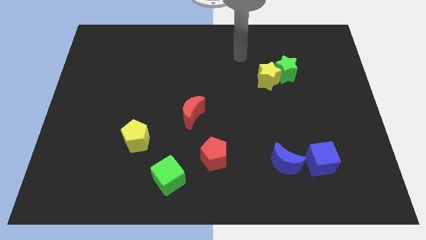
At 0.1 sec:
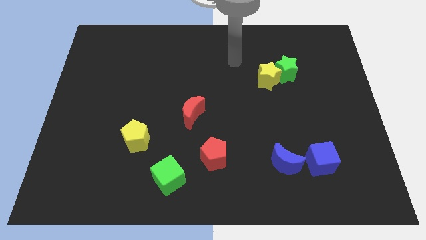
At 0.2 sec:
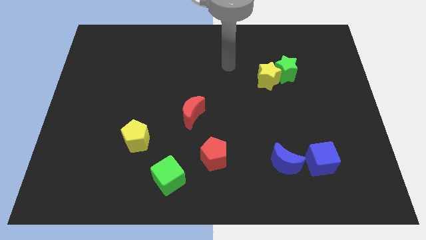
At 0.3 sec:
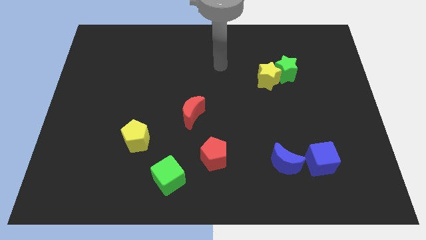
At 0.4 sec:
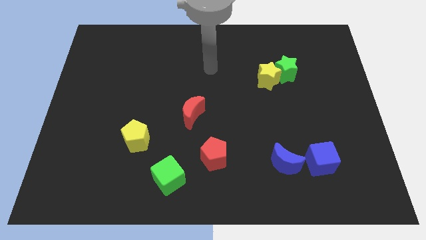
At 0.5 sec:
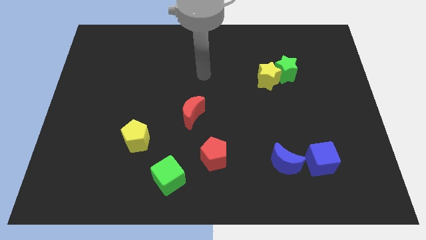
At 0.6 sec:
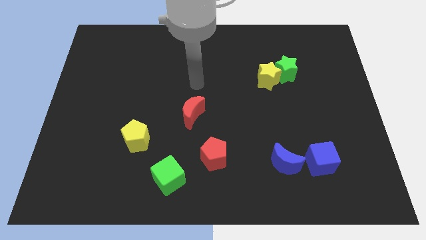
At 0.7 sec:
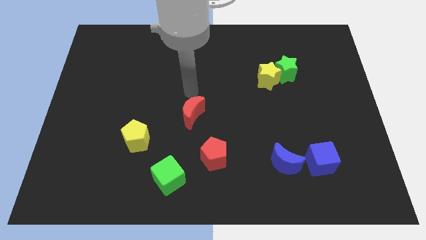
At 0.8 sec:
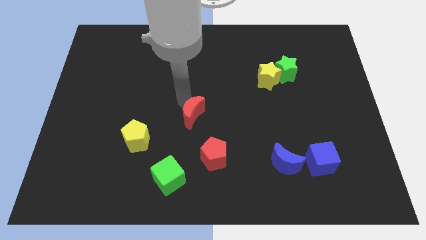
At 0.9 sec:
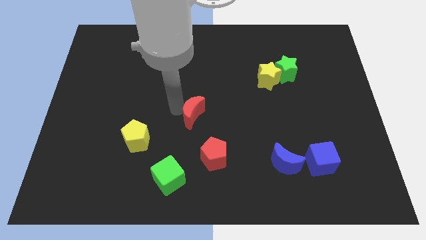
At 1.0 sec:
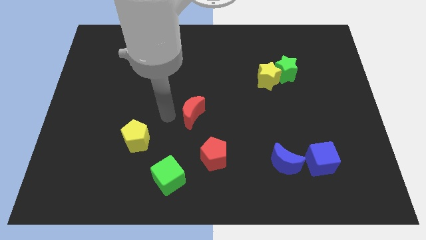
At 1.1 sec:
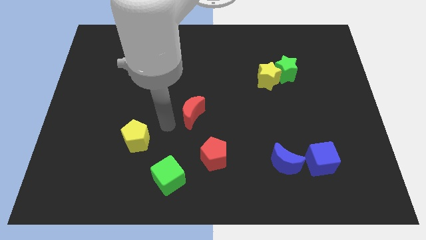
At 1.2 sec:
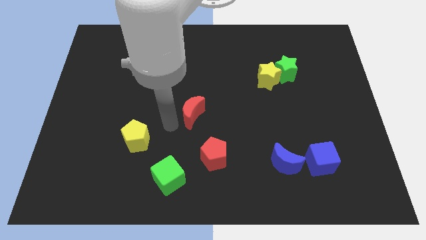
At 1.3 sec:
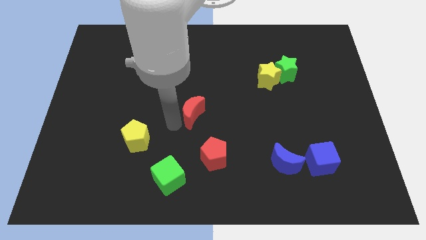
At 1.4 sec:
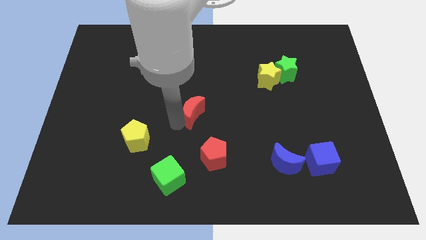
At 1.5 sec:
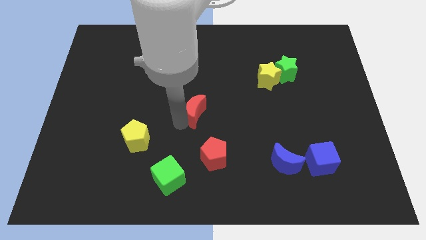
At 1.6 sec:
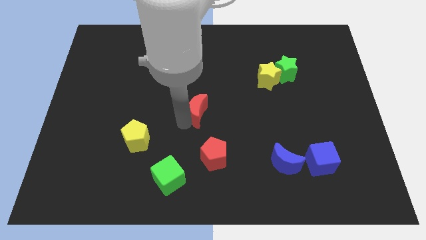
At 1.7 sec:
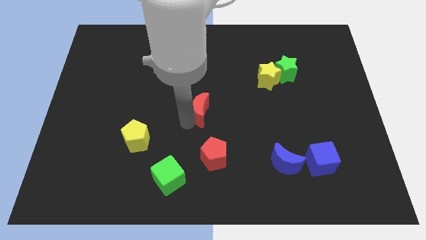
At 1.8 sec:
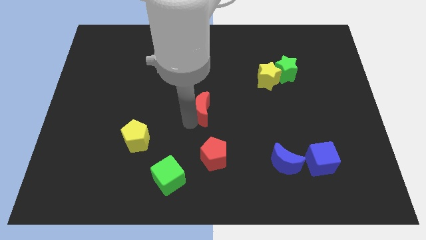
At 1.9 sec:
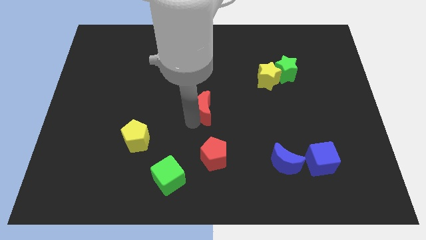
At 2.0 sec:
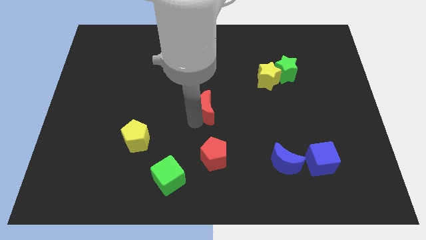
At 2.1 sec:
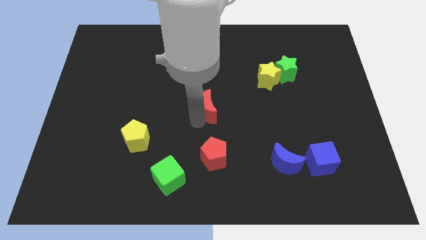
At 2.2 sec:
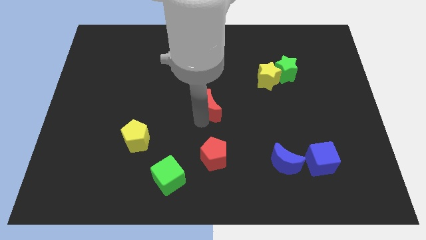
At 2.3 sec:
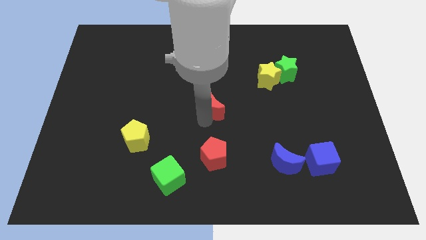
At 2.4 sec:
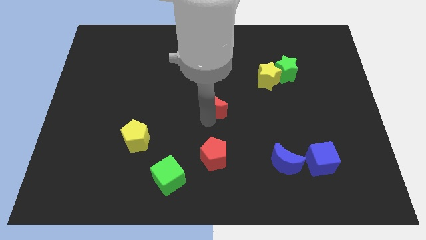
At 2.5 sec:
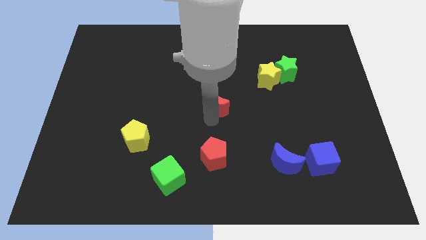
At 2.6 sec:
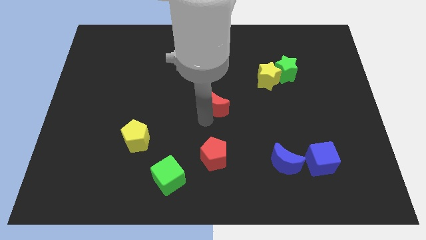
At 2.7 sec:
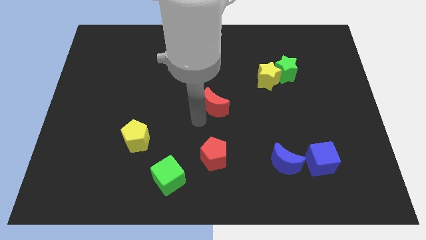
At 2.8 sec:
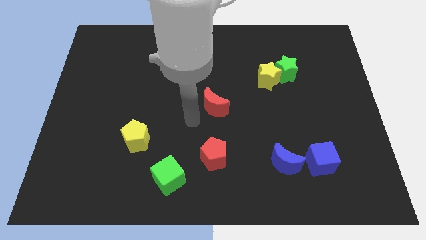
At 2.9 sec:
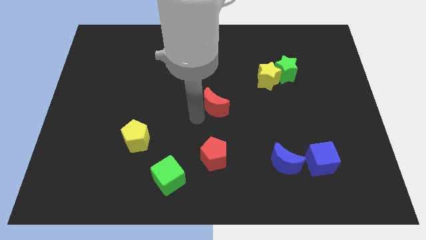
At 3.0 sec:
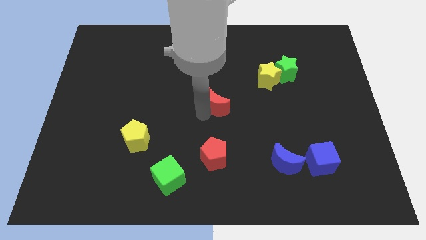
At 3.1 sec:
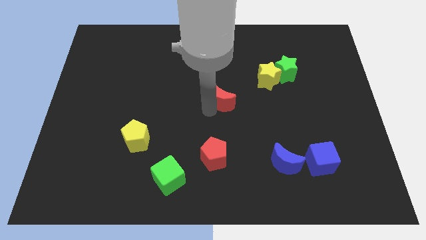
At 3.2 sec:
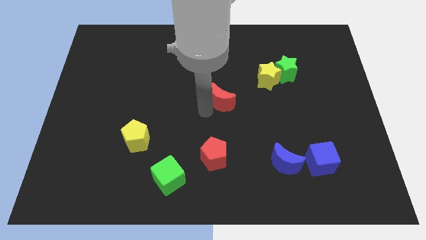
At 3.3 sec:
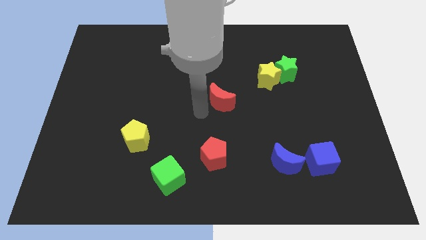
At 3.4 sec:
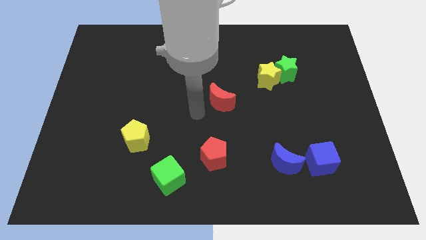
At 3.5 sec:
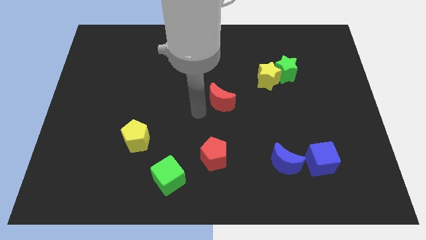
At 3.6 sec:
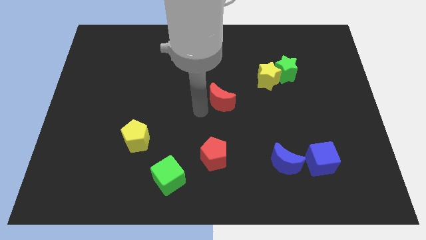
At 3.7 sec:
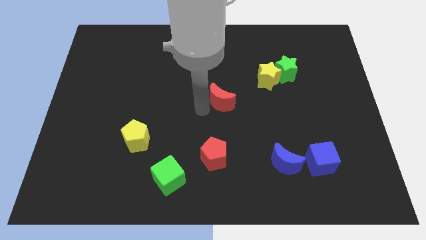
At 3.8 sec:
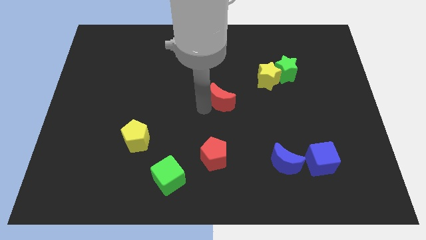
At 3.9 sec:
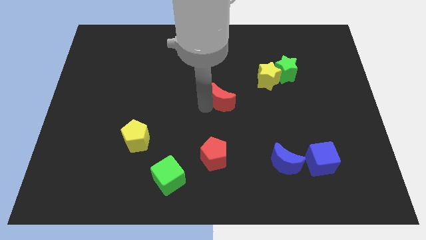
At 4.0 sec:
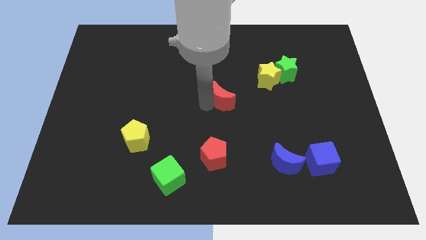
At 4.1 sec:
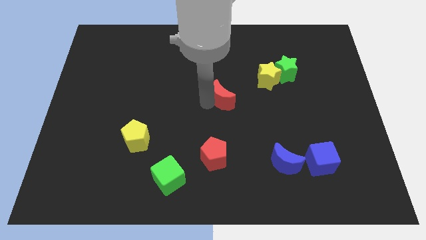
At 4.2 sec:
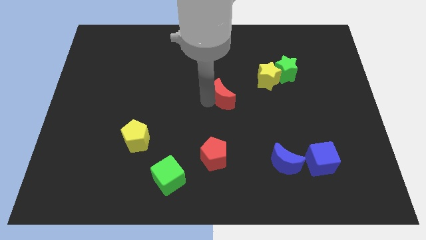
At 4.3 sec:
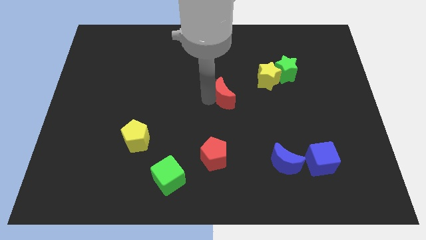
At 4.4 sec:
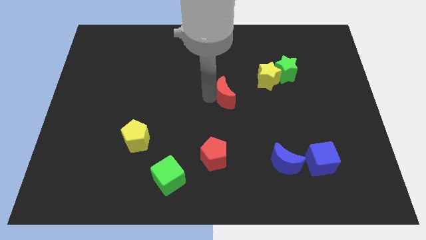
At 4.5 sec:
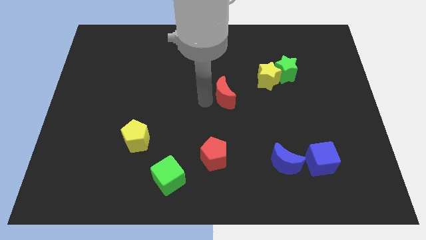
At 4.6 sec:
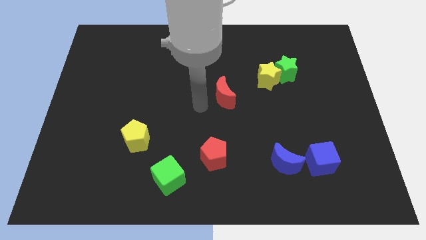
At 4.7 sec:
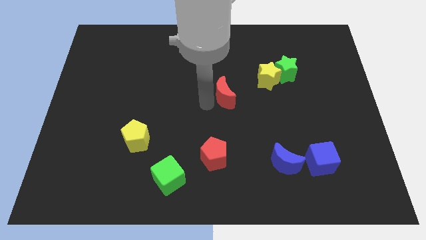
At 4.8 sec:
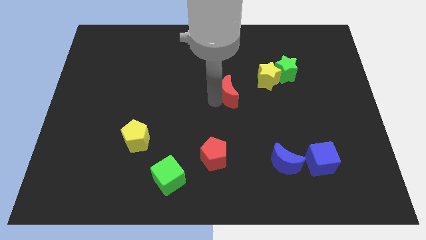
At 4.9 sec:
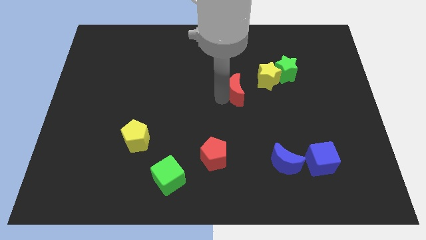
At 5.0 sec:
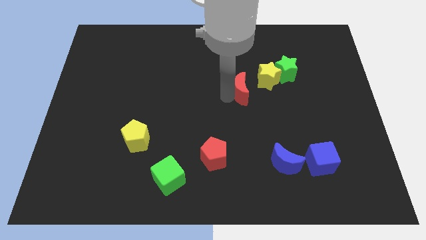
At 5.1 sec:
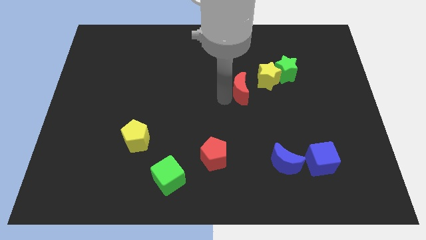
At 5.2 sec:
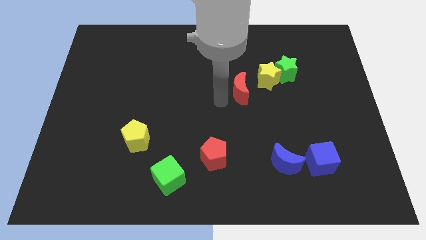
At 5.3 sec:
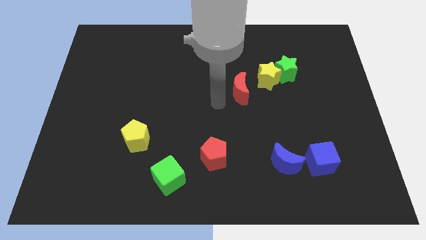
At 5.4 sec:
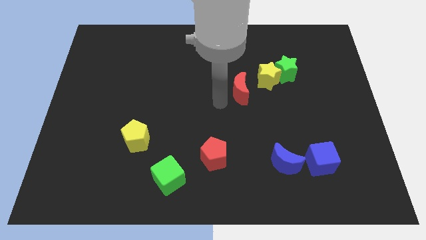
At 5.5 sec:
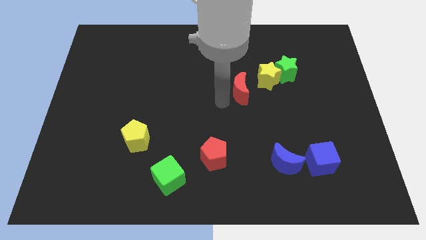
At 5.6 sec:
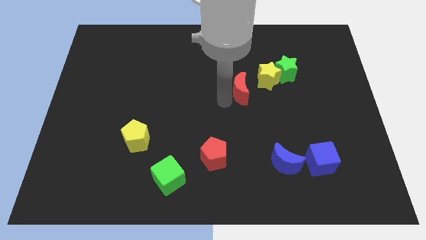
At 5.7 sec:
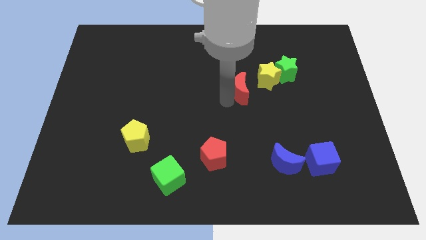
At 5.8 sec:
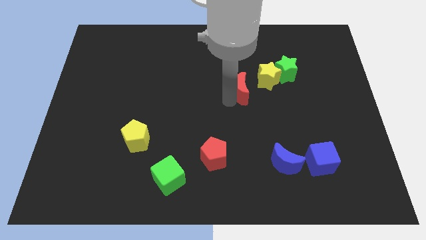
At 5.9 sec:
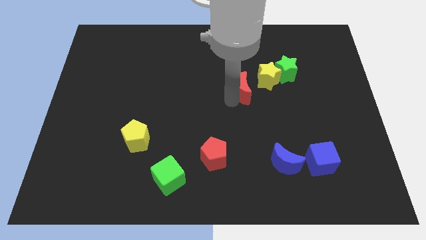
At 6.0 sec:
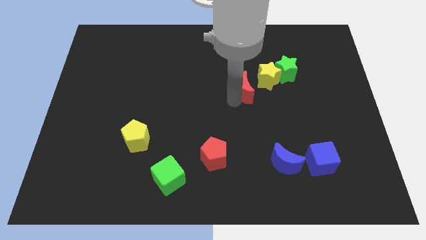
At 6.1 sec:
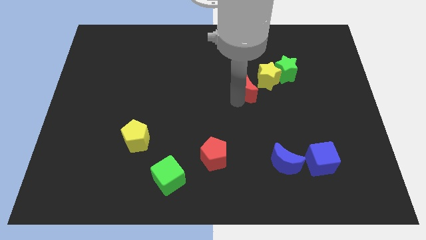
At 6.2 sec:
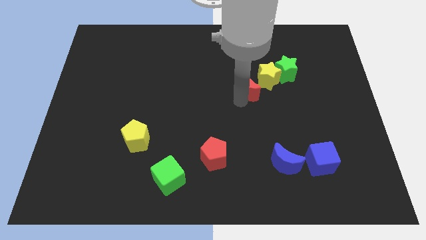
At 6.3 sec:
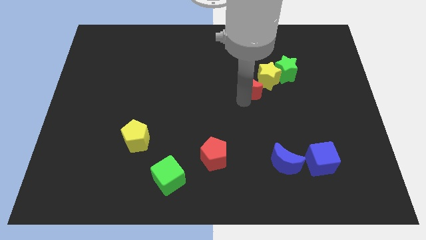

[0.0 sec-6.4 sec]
push the red moon next to the yellow star

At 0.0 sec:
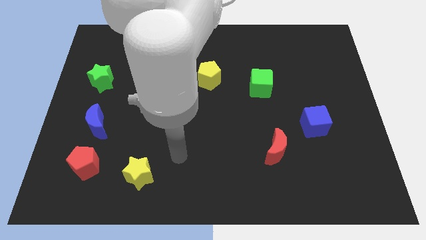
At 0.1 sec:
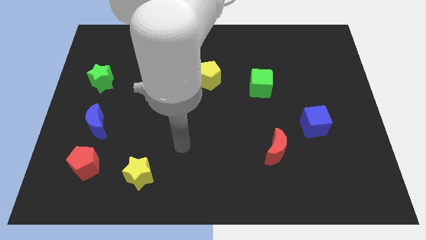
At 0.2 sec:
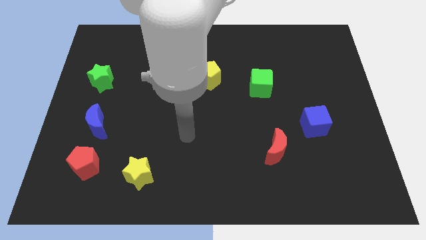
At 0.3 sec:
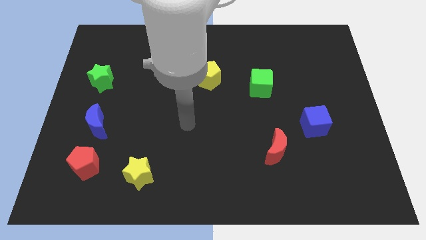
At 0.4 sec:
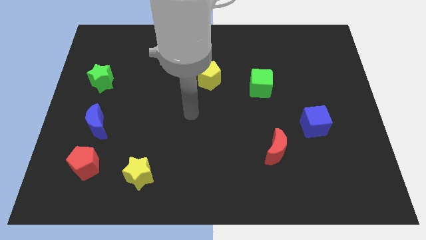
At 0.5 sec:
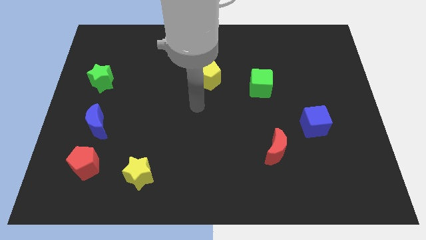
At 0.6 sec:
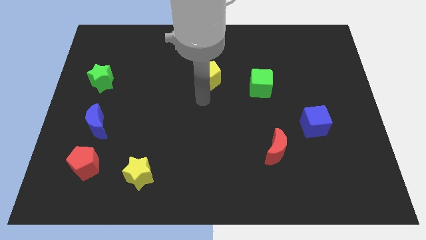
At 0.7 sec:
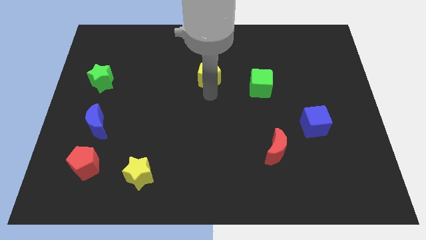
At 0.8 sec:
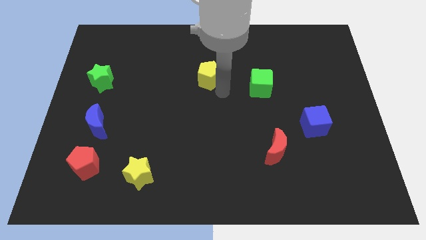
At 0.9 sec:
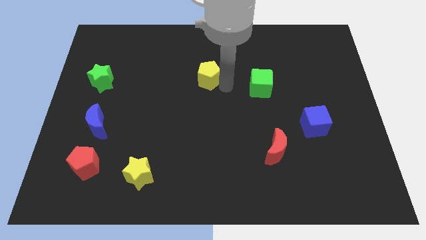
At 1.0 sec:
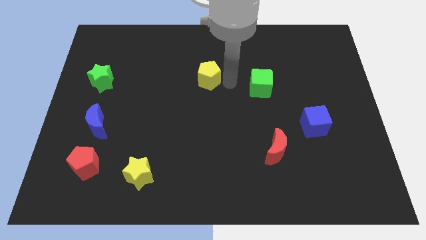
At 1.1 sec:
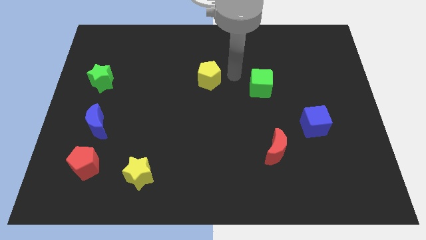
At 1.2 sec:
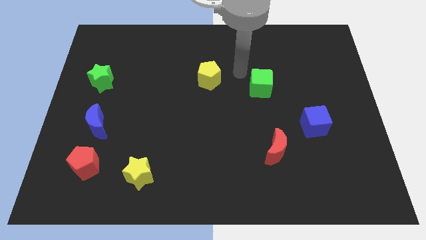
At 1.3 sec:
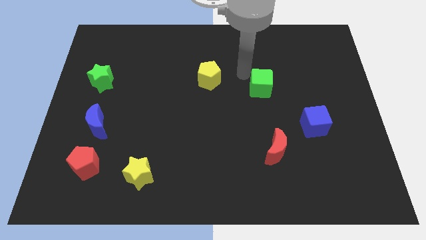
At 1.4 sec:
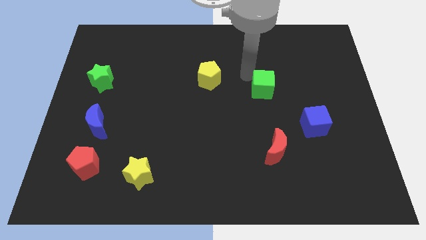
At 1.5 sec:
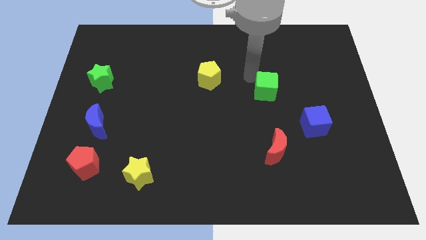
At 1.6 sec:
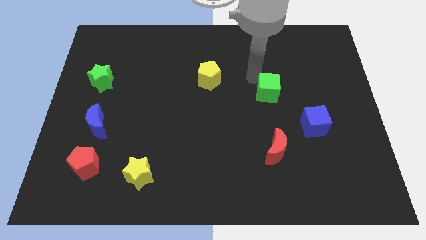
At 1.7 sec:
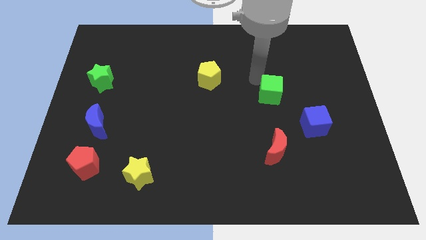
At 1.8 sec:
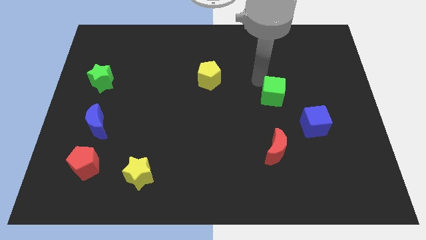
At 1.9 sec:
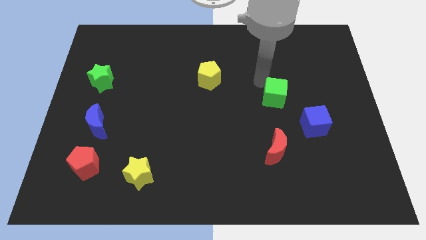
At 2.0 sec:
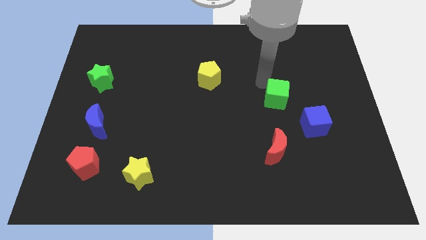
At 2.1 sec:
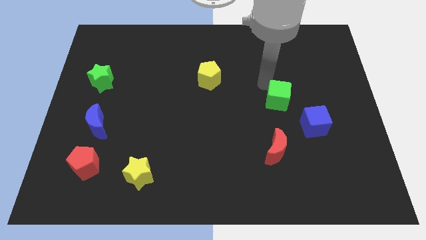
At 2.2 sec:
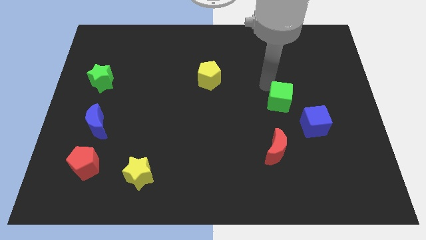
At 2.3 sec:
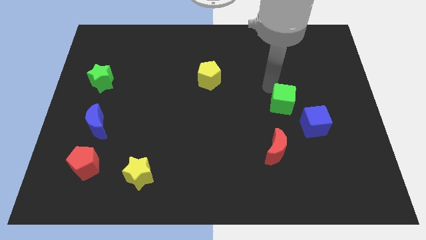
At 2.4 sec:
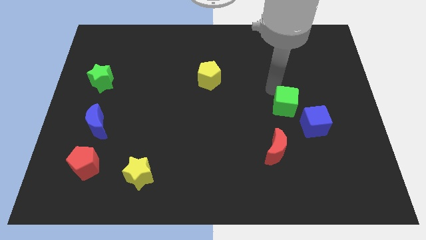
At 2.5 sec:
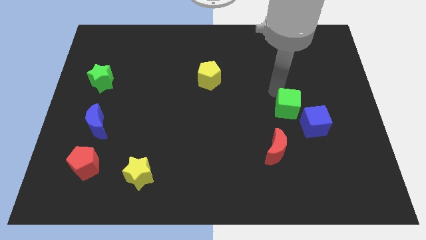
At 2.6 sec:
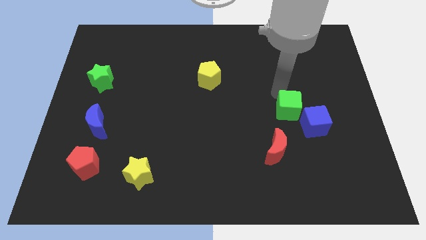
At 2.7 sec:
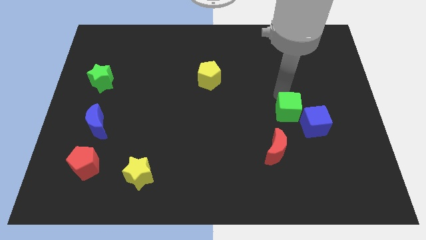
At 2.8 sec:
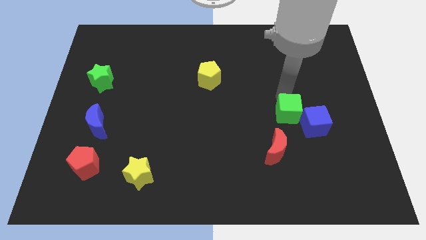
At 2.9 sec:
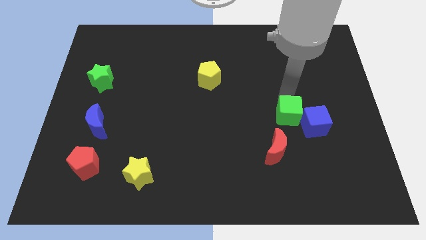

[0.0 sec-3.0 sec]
slide the green cube next to the blue cube
